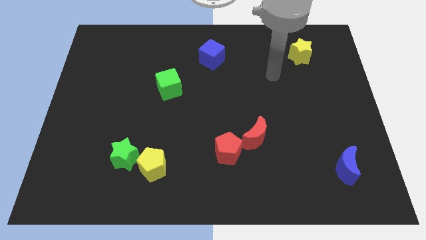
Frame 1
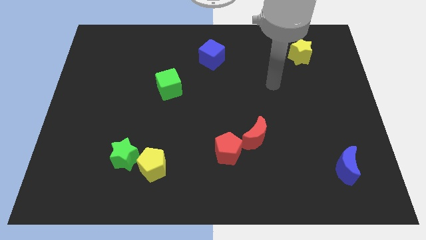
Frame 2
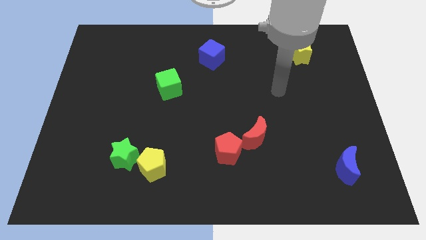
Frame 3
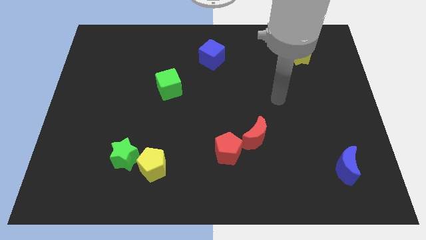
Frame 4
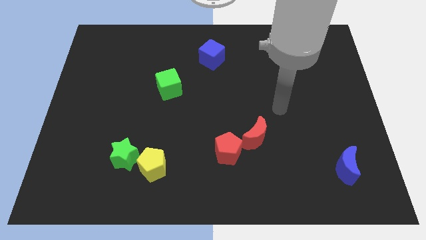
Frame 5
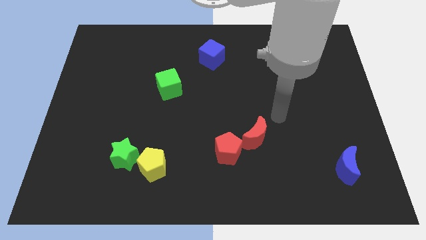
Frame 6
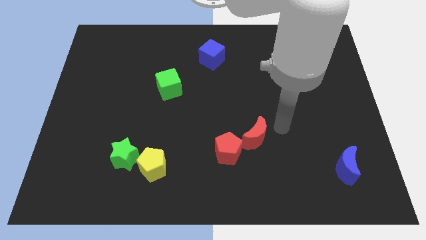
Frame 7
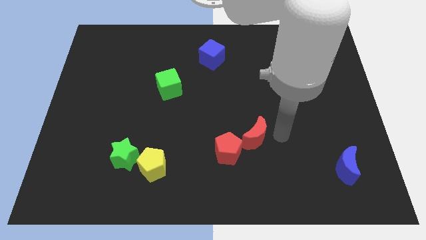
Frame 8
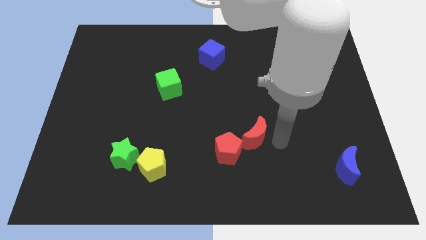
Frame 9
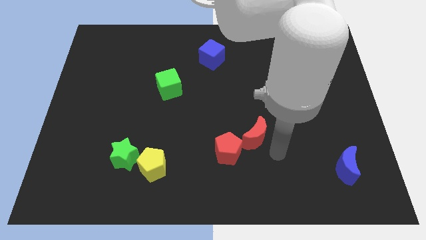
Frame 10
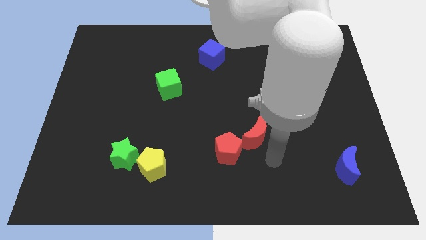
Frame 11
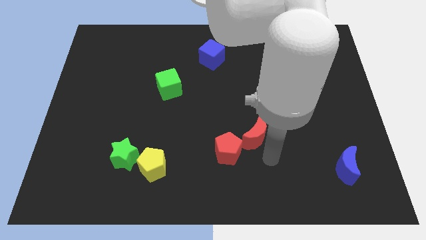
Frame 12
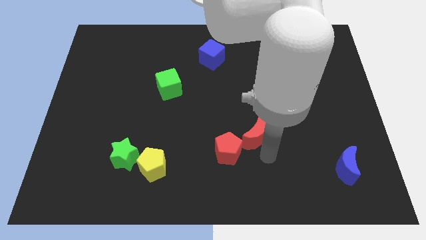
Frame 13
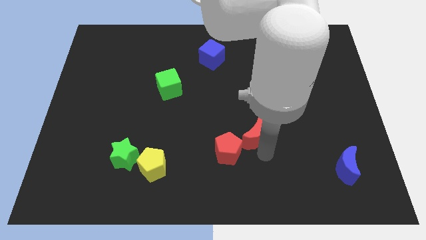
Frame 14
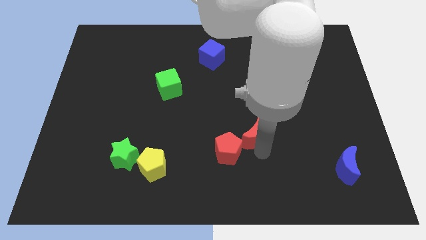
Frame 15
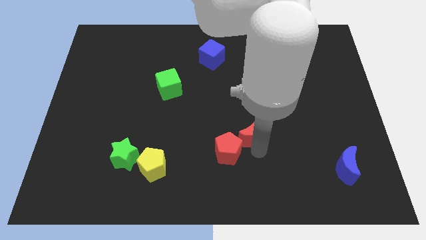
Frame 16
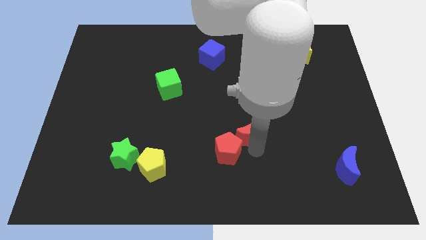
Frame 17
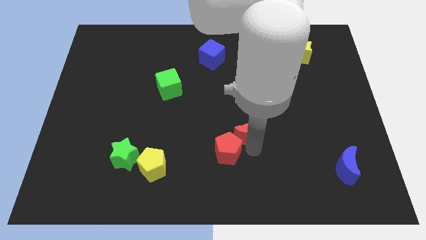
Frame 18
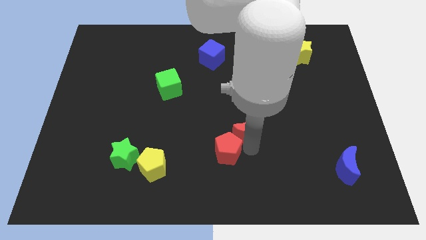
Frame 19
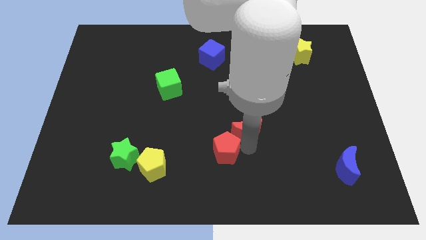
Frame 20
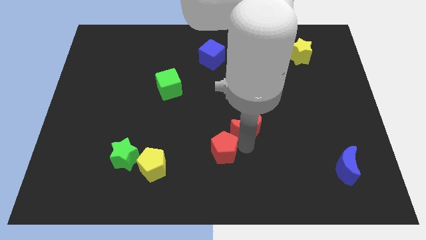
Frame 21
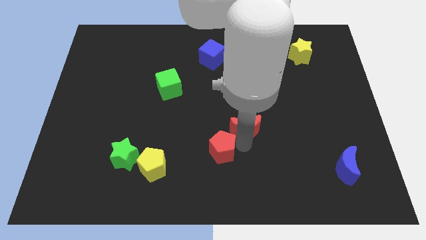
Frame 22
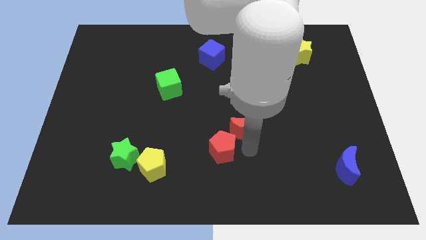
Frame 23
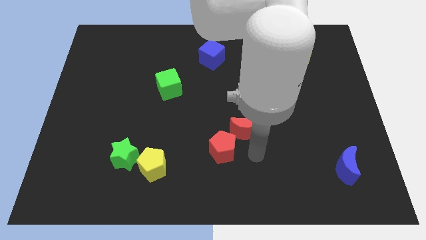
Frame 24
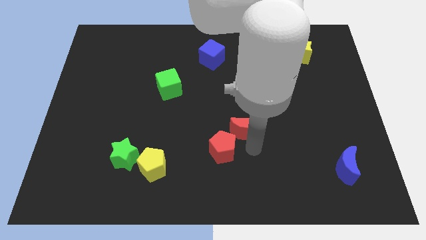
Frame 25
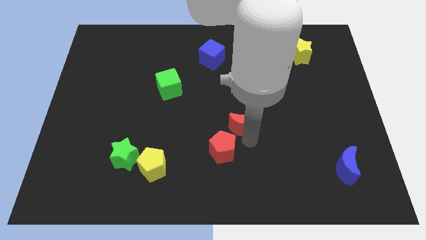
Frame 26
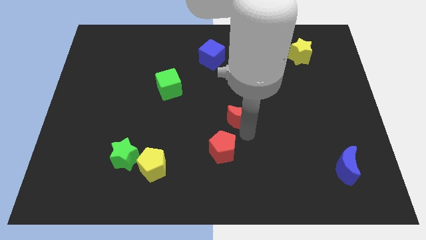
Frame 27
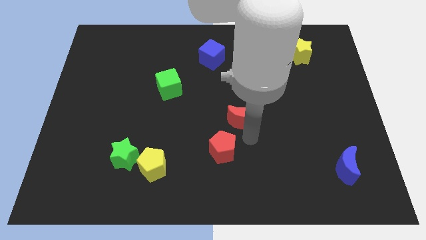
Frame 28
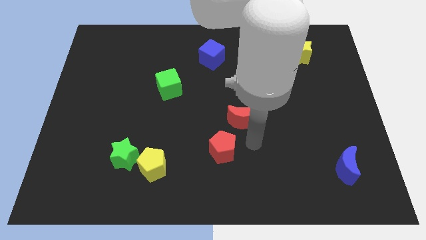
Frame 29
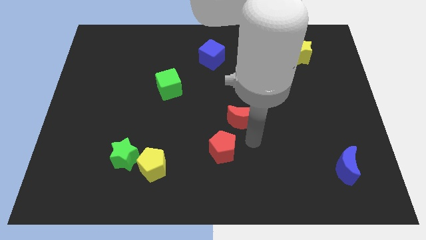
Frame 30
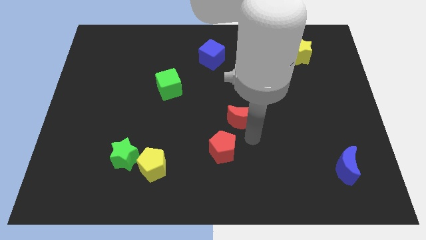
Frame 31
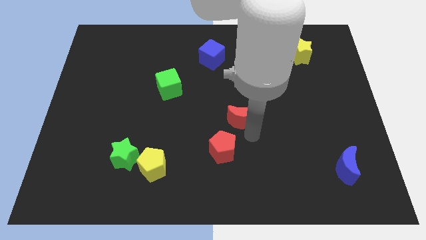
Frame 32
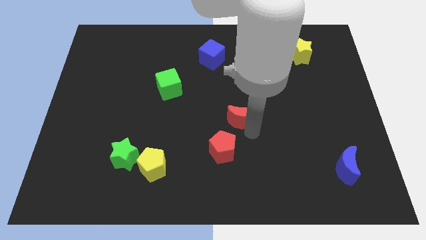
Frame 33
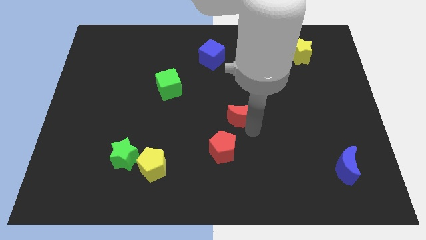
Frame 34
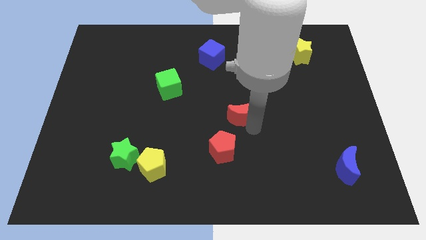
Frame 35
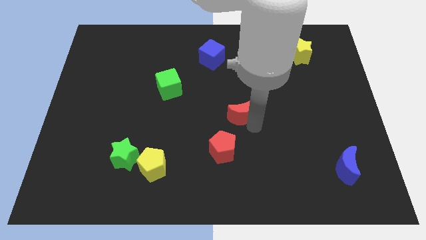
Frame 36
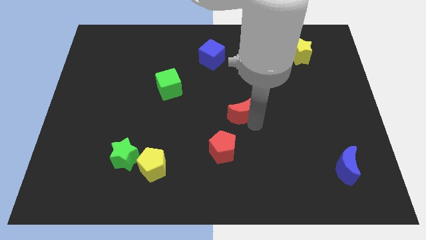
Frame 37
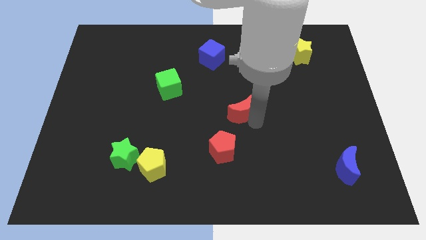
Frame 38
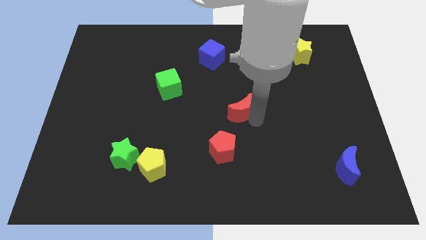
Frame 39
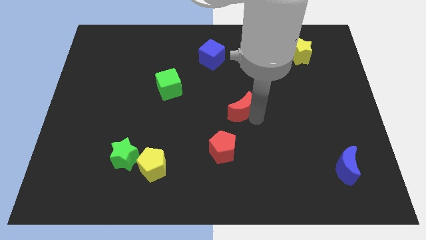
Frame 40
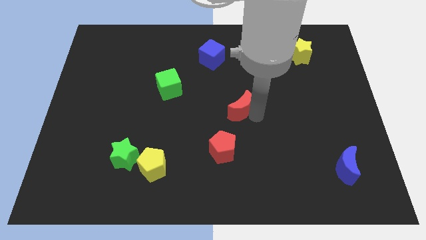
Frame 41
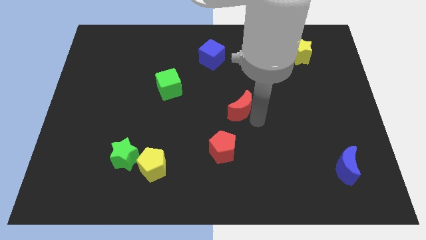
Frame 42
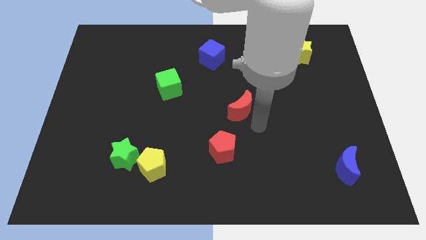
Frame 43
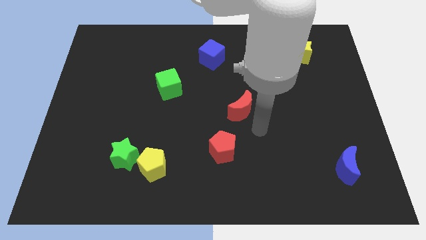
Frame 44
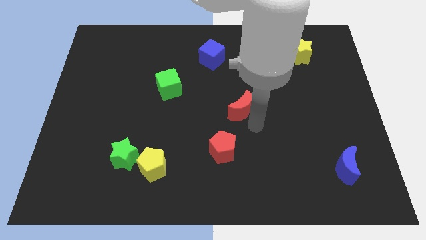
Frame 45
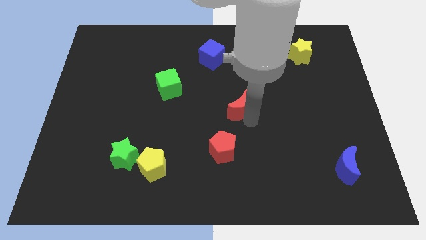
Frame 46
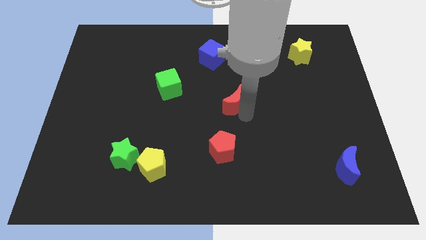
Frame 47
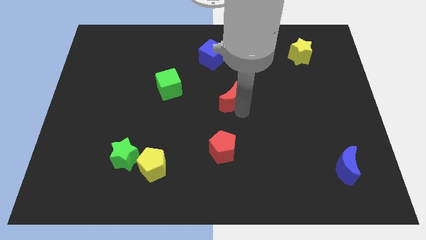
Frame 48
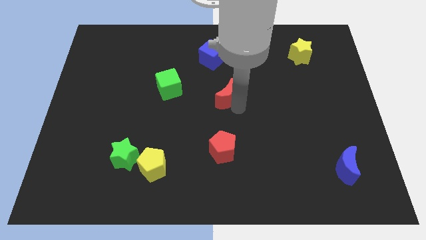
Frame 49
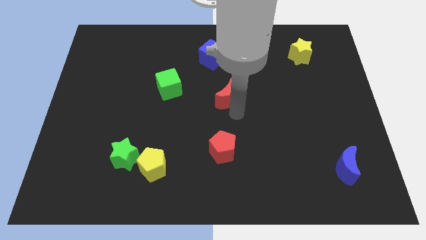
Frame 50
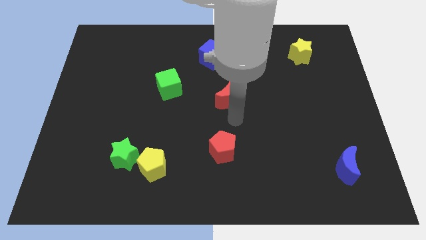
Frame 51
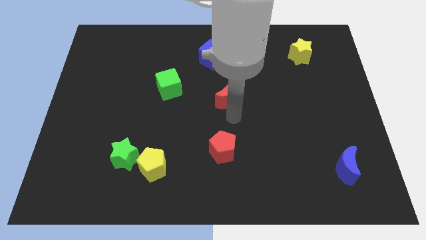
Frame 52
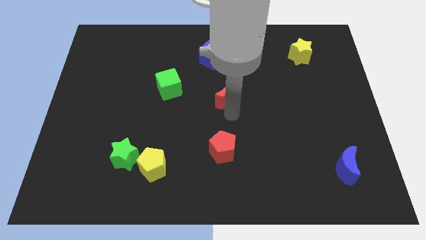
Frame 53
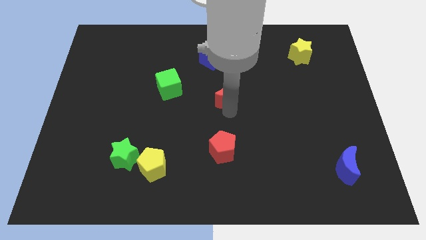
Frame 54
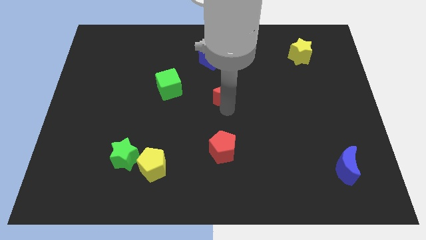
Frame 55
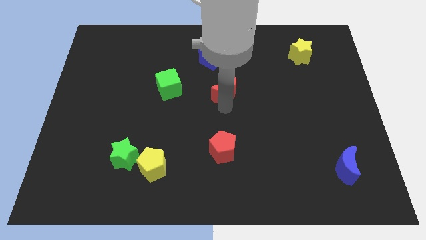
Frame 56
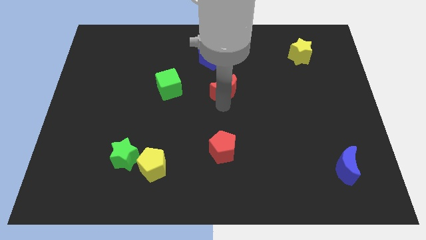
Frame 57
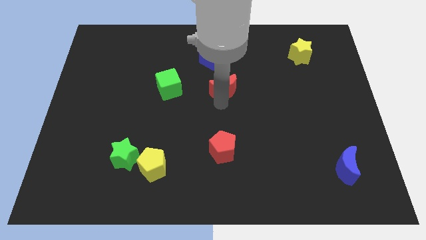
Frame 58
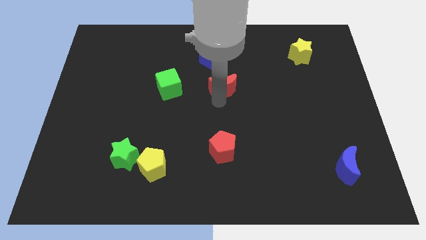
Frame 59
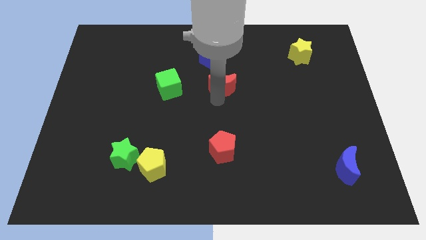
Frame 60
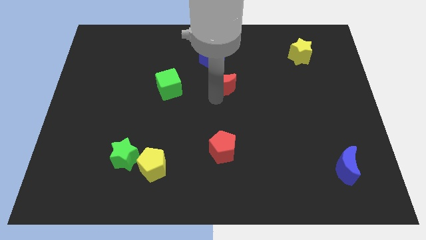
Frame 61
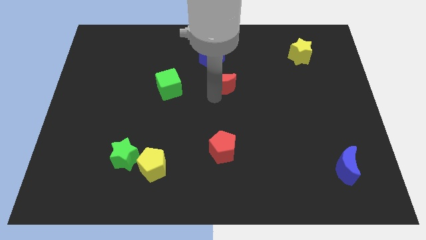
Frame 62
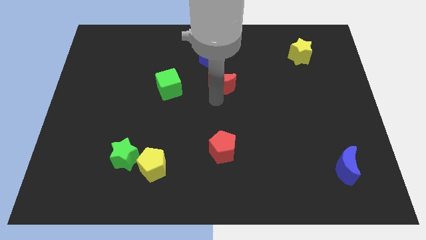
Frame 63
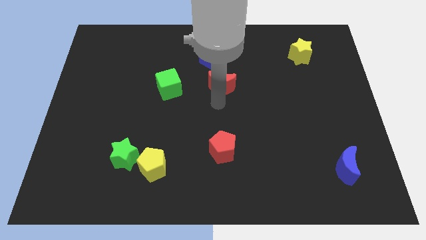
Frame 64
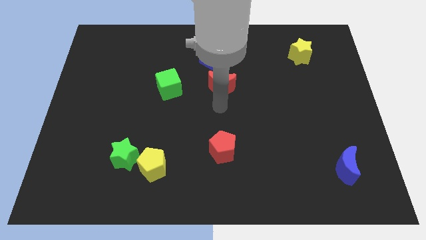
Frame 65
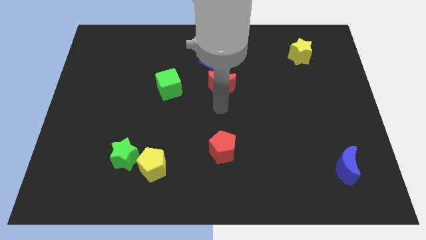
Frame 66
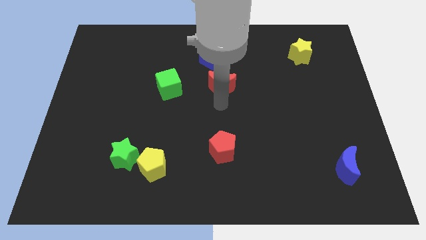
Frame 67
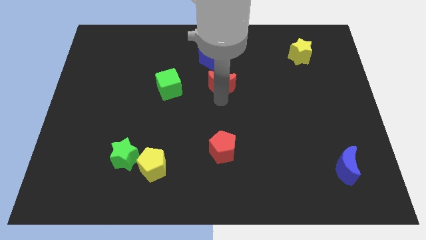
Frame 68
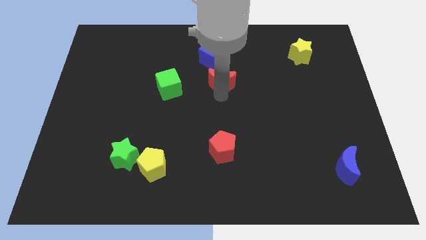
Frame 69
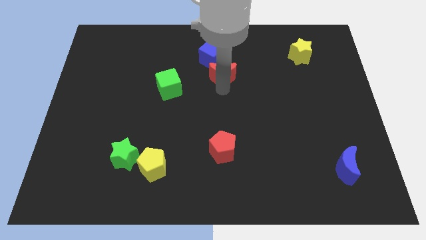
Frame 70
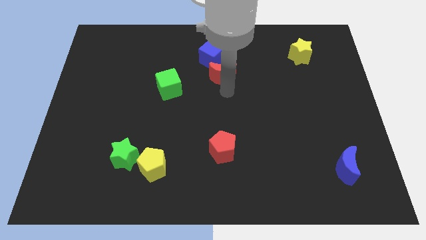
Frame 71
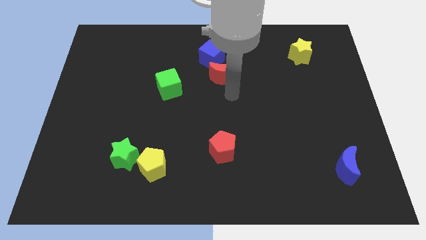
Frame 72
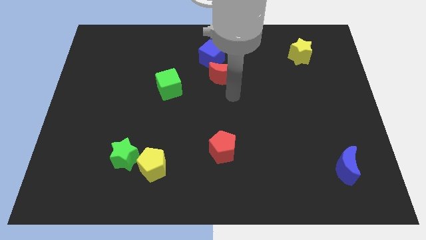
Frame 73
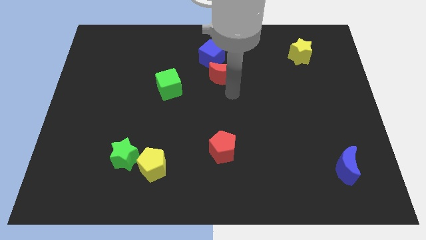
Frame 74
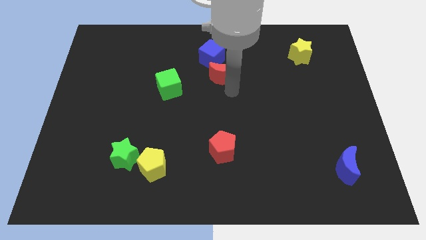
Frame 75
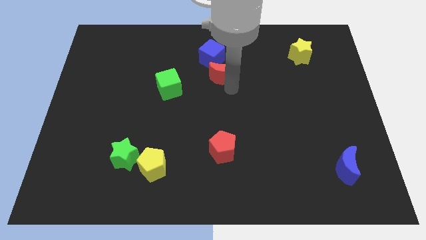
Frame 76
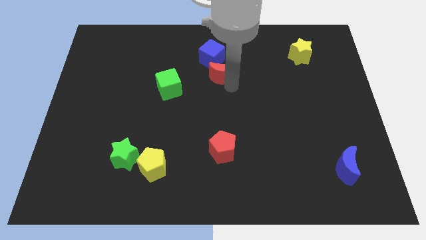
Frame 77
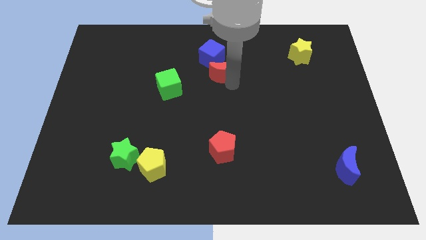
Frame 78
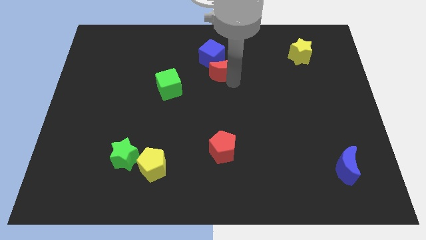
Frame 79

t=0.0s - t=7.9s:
put the red moon towards the blue cube
